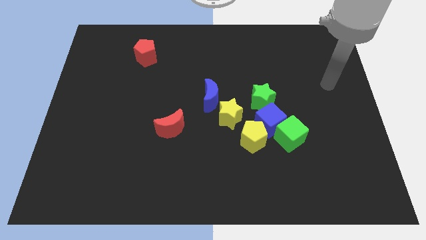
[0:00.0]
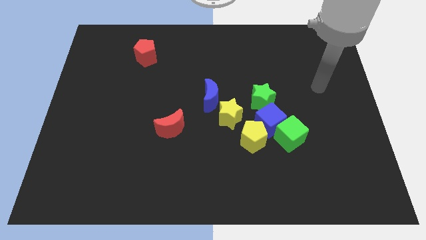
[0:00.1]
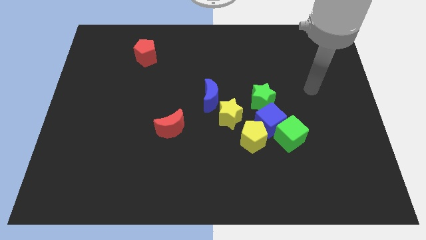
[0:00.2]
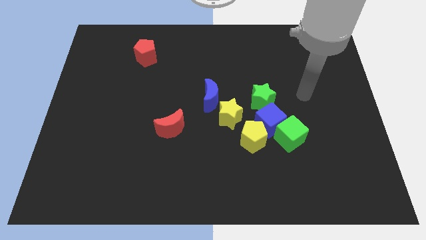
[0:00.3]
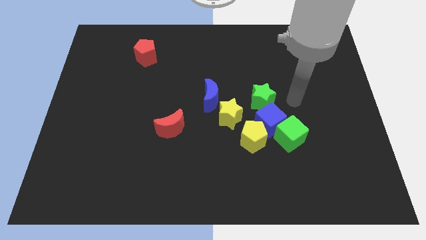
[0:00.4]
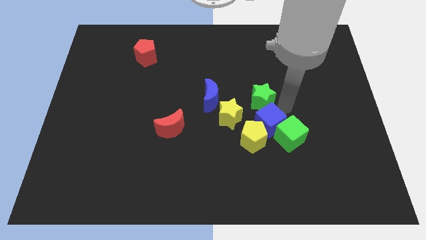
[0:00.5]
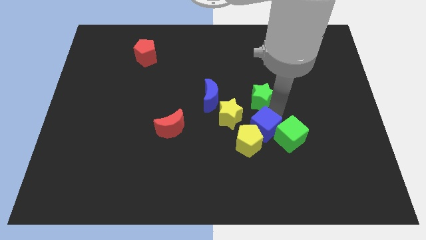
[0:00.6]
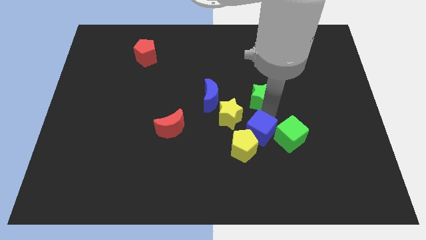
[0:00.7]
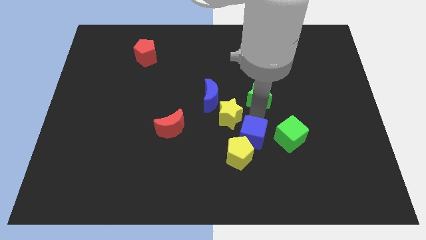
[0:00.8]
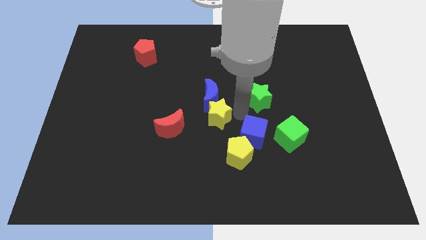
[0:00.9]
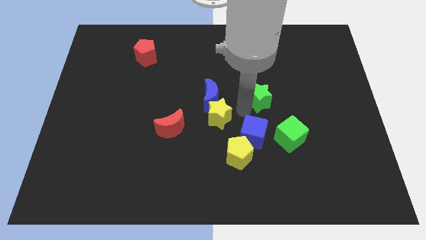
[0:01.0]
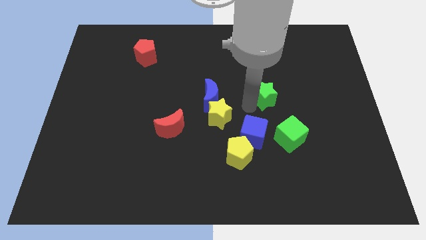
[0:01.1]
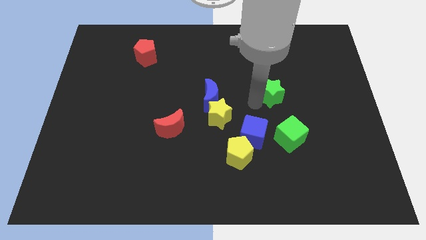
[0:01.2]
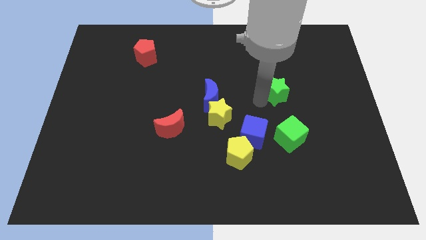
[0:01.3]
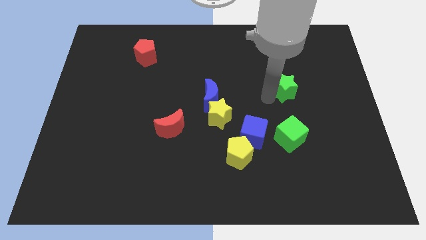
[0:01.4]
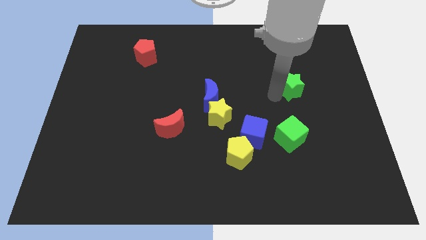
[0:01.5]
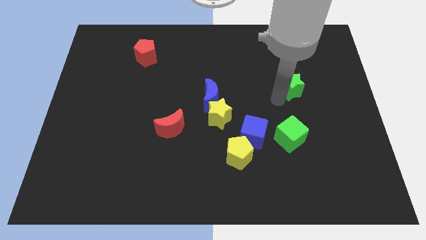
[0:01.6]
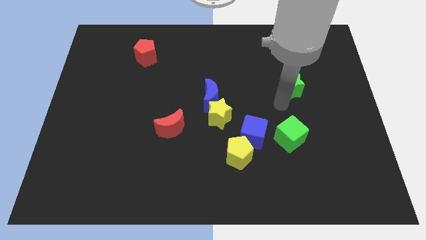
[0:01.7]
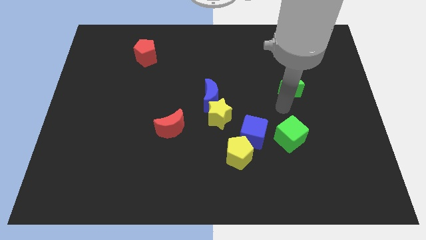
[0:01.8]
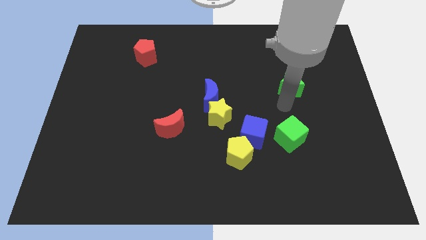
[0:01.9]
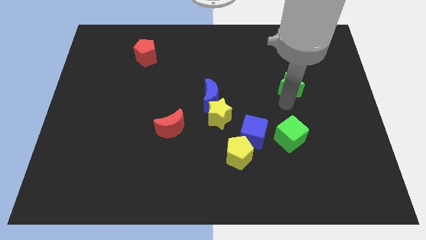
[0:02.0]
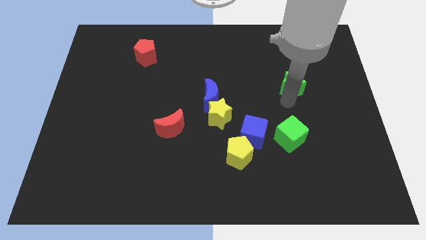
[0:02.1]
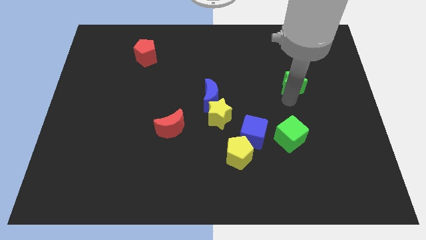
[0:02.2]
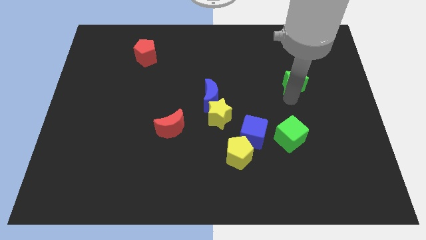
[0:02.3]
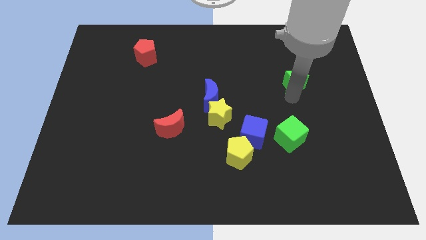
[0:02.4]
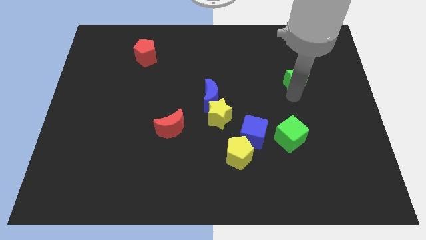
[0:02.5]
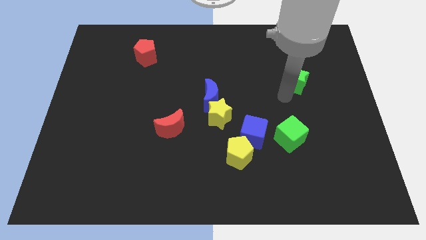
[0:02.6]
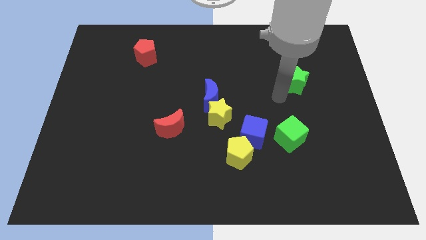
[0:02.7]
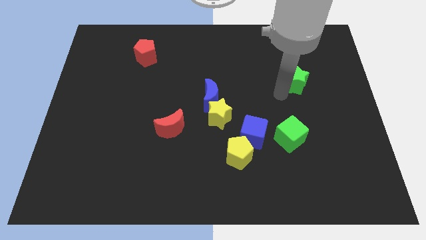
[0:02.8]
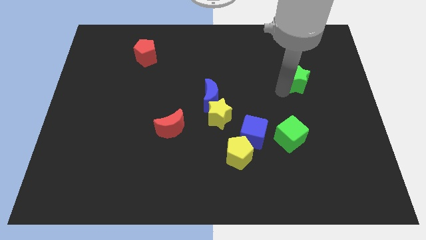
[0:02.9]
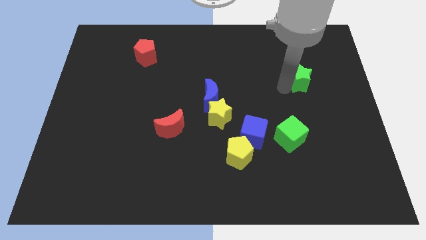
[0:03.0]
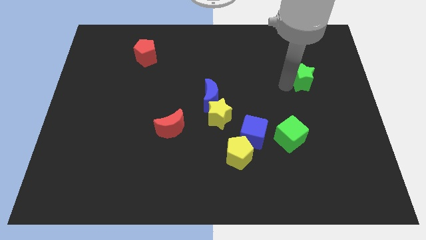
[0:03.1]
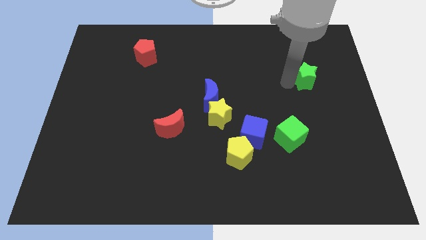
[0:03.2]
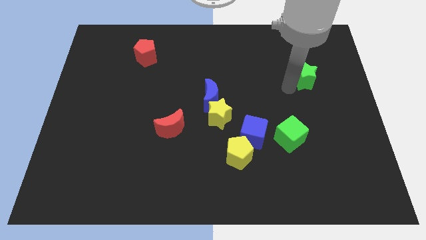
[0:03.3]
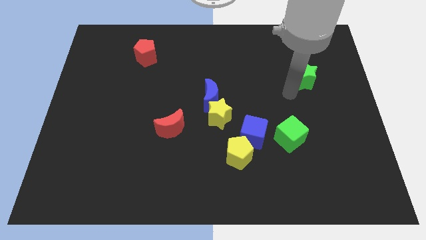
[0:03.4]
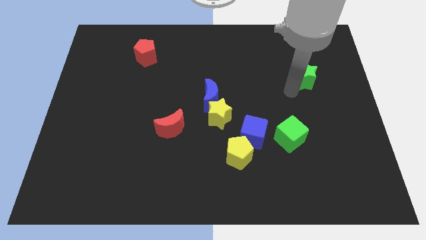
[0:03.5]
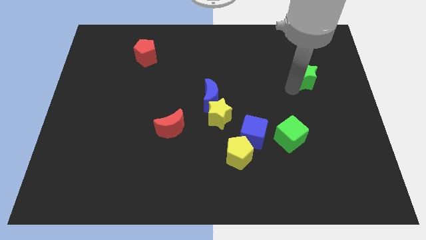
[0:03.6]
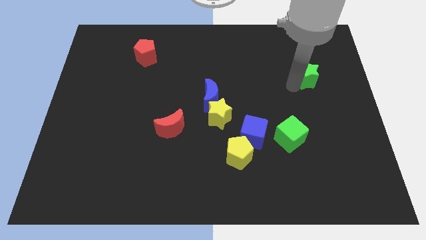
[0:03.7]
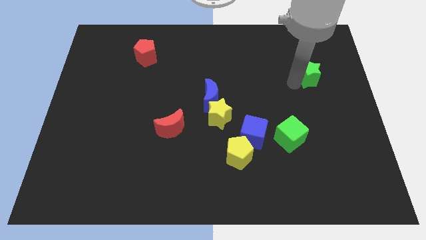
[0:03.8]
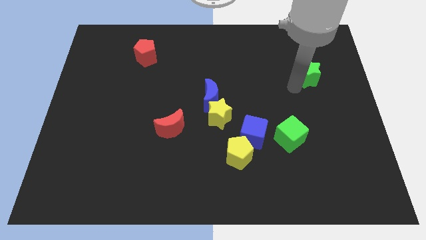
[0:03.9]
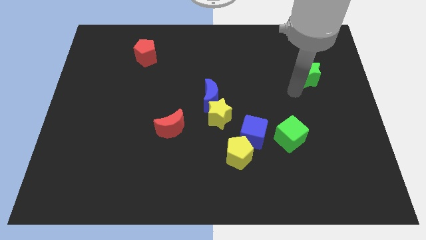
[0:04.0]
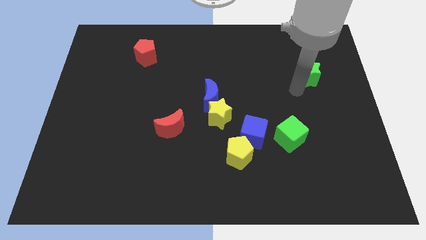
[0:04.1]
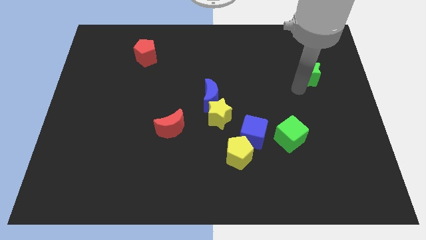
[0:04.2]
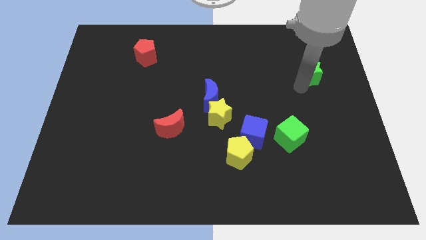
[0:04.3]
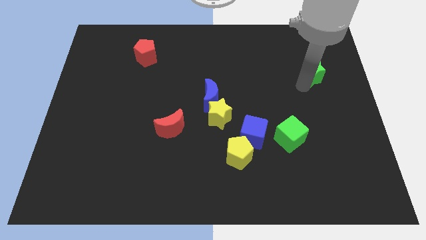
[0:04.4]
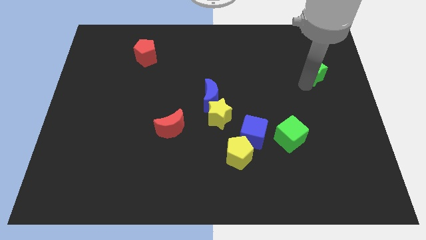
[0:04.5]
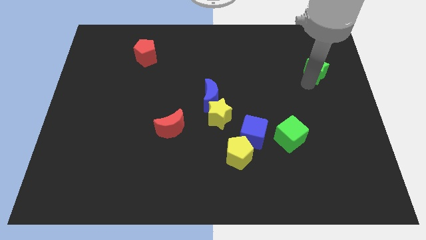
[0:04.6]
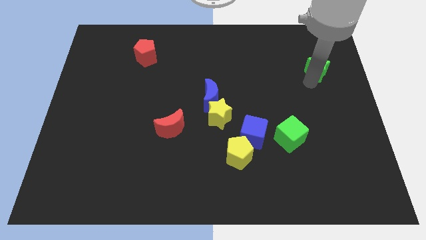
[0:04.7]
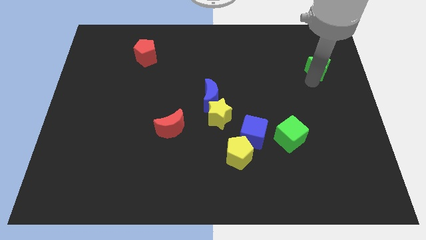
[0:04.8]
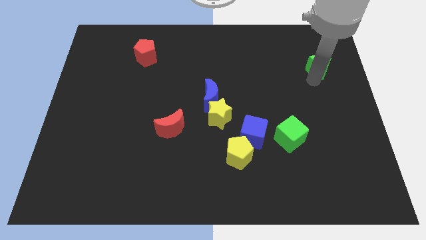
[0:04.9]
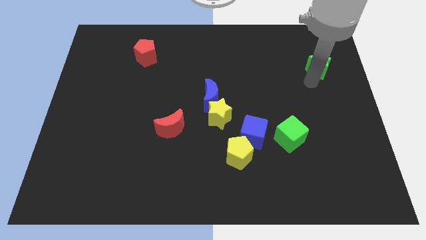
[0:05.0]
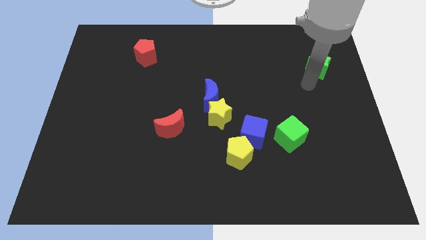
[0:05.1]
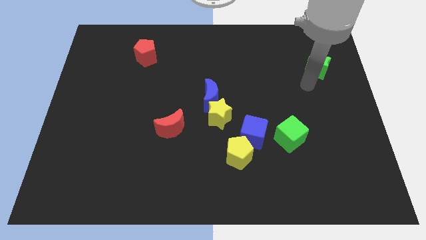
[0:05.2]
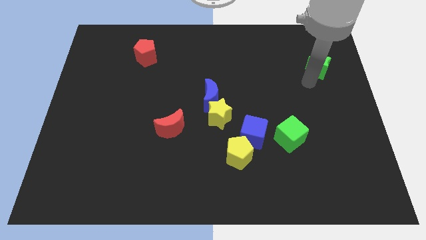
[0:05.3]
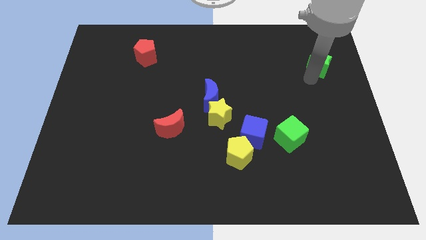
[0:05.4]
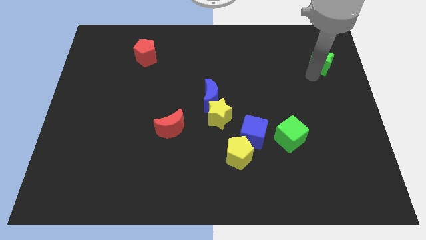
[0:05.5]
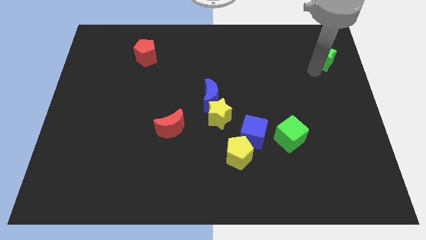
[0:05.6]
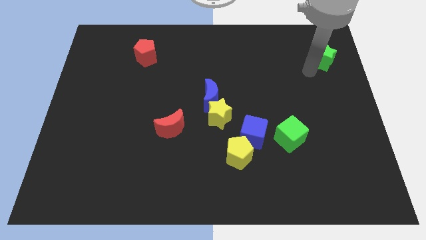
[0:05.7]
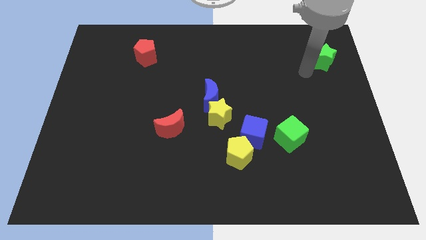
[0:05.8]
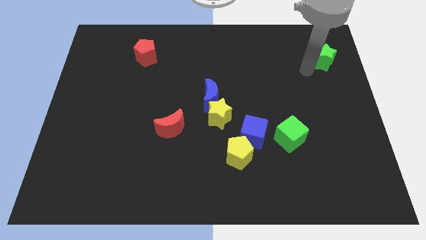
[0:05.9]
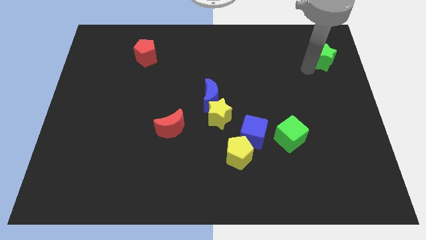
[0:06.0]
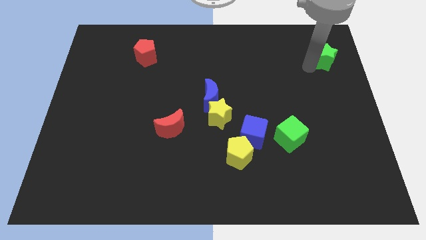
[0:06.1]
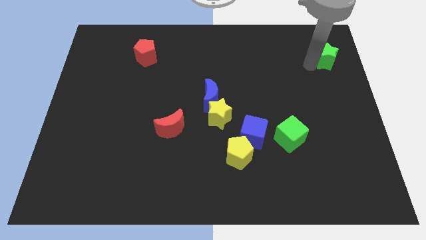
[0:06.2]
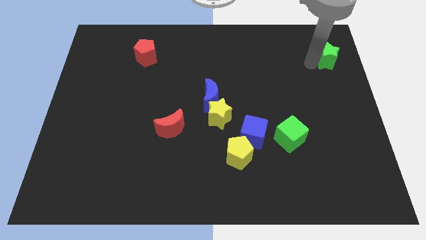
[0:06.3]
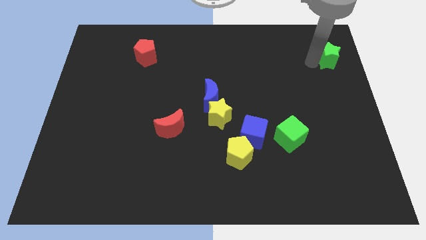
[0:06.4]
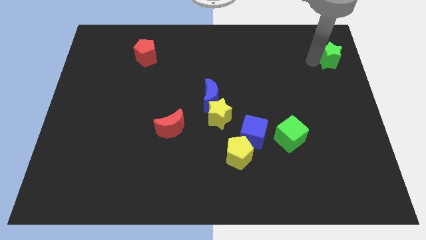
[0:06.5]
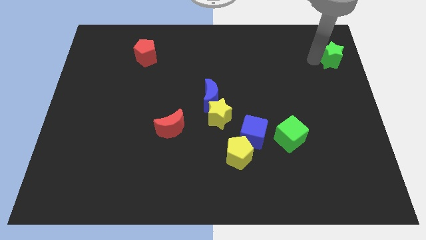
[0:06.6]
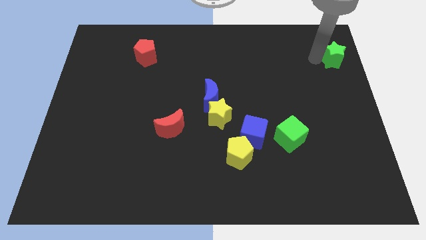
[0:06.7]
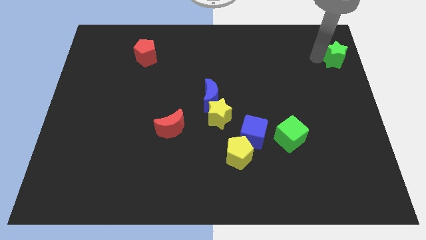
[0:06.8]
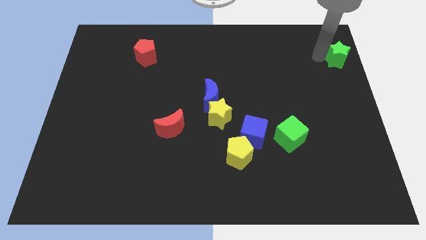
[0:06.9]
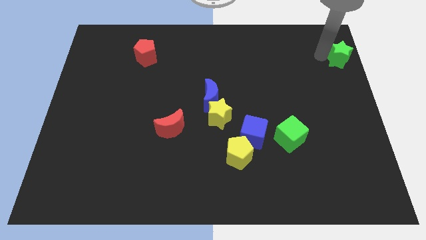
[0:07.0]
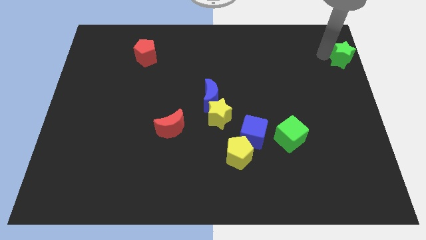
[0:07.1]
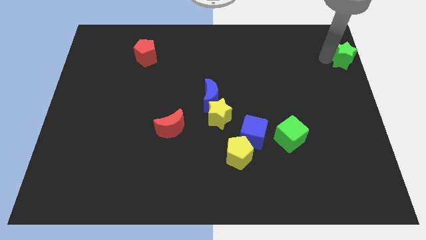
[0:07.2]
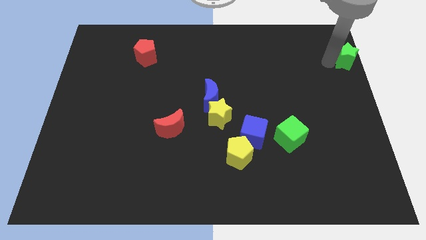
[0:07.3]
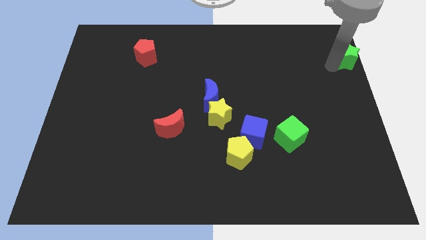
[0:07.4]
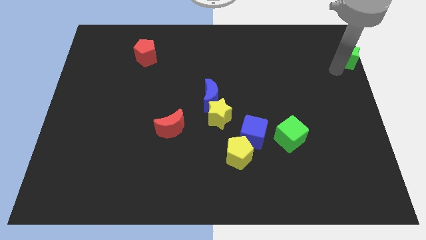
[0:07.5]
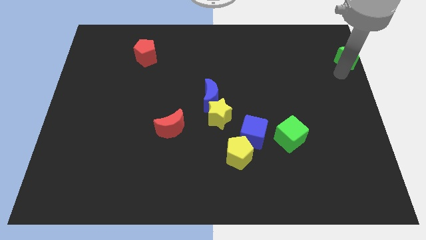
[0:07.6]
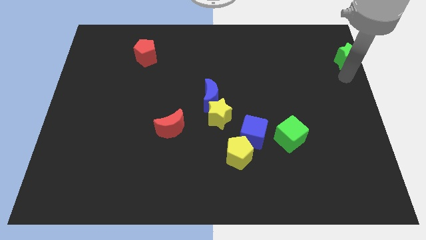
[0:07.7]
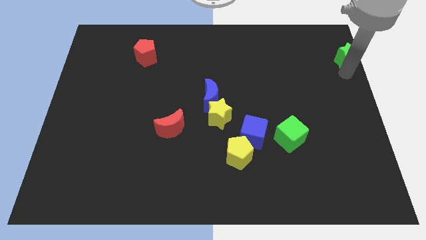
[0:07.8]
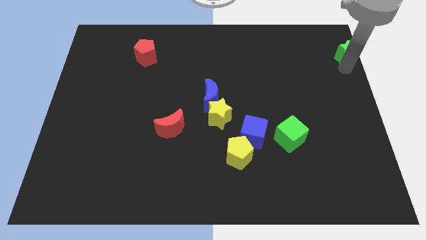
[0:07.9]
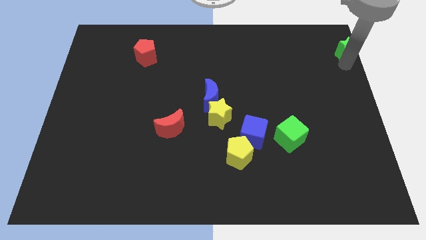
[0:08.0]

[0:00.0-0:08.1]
push the green star to the top right of the board

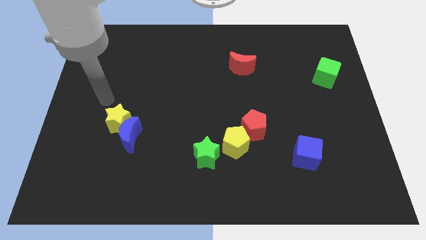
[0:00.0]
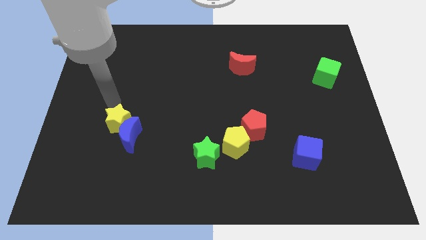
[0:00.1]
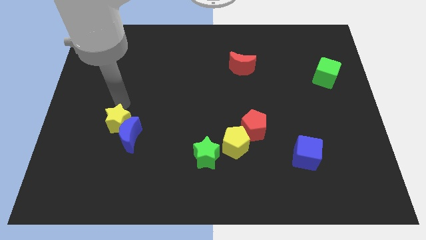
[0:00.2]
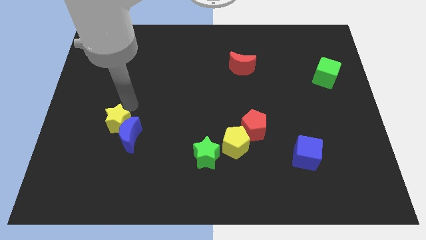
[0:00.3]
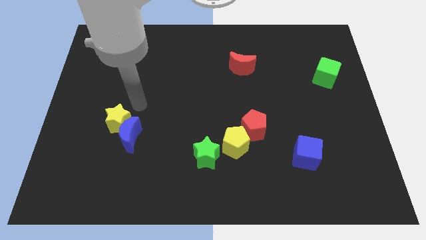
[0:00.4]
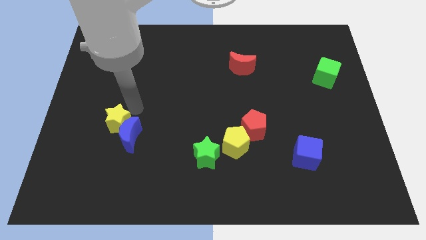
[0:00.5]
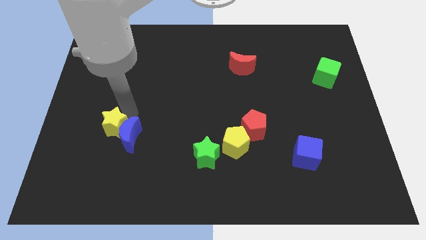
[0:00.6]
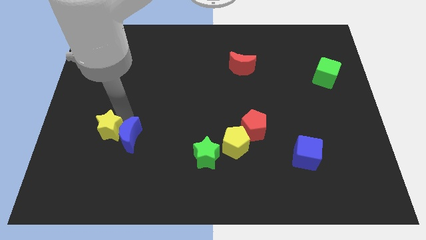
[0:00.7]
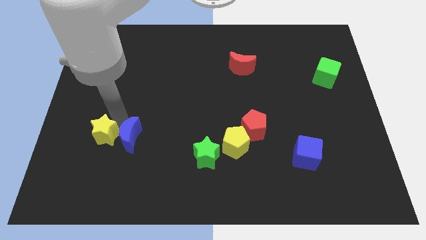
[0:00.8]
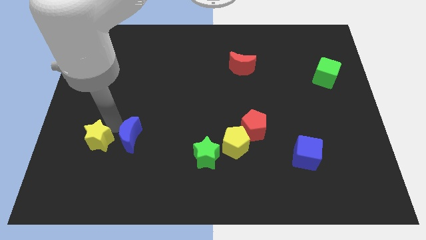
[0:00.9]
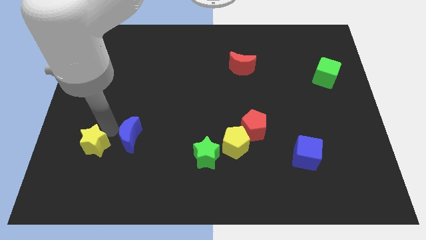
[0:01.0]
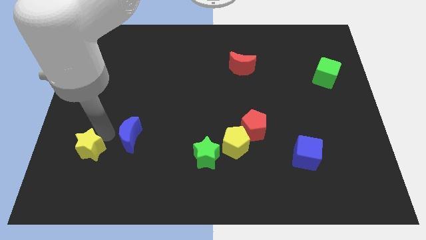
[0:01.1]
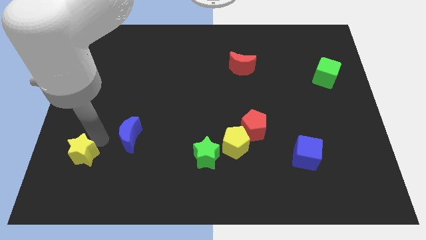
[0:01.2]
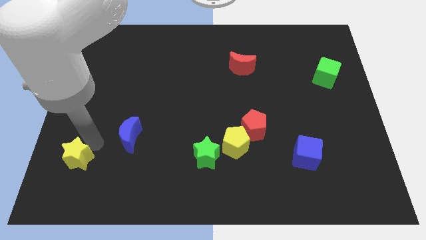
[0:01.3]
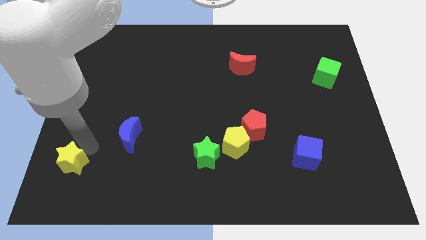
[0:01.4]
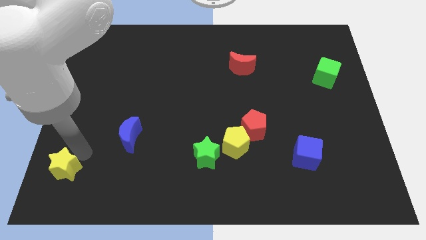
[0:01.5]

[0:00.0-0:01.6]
move the yellow star to the bottom left of the board
